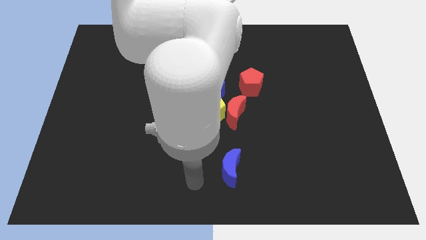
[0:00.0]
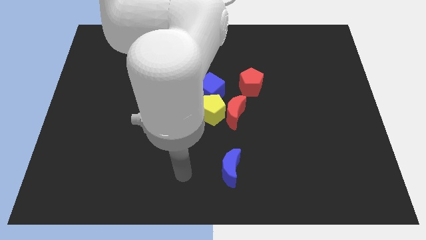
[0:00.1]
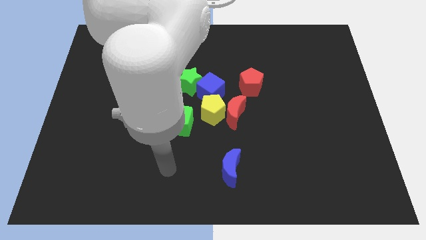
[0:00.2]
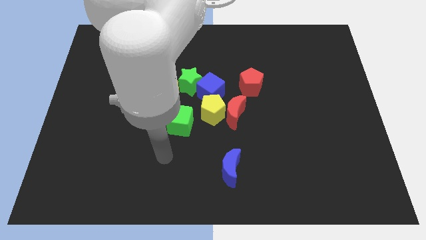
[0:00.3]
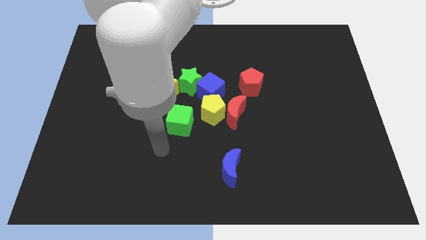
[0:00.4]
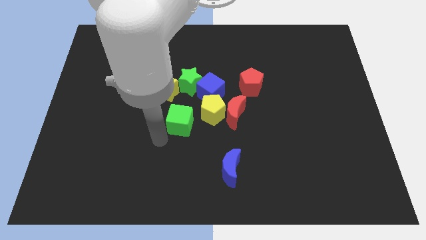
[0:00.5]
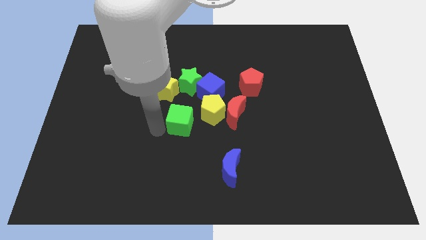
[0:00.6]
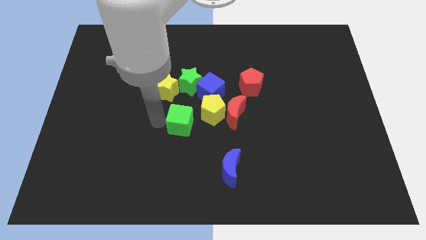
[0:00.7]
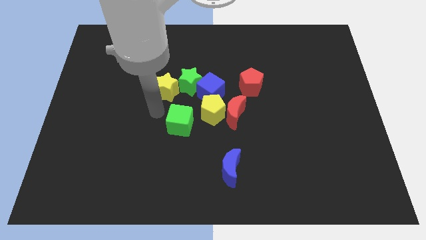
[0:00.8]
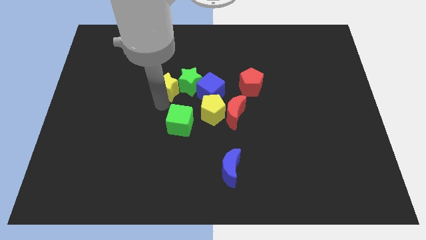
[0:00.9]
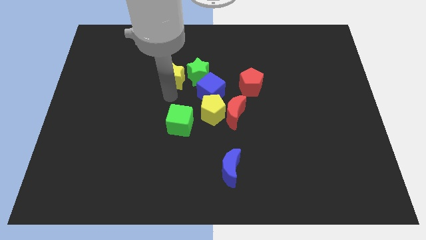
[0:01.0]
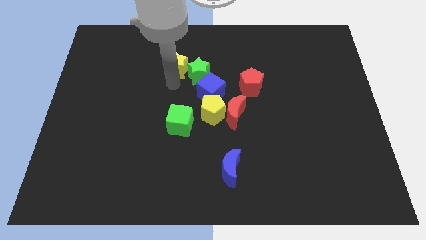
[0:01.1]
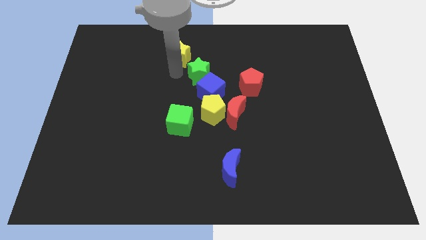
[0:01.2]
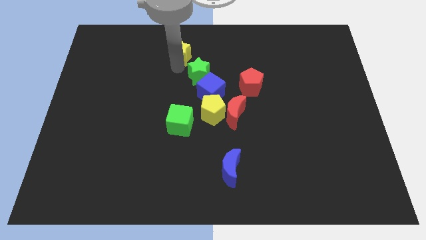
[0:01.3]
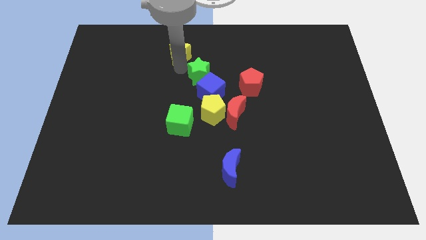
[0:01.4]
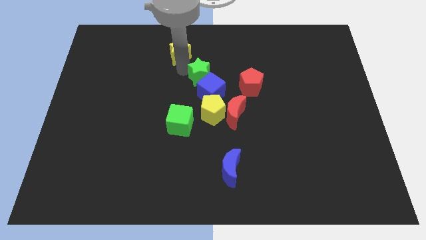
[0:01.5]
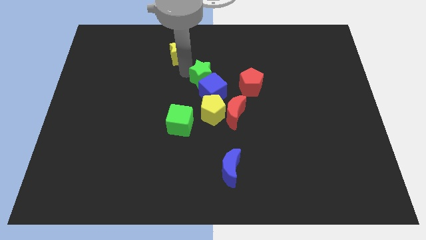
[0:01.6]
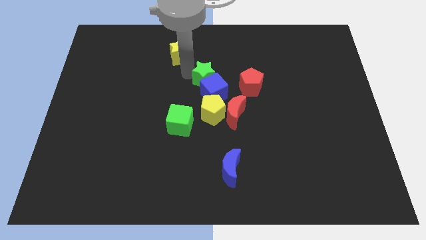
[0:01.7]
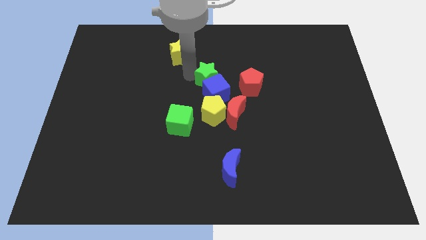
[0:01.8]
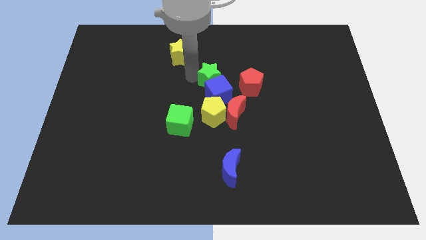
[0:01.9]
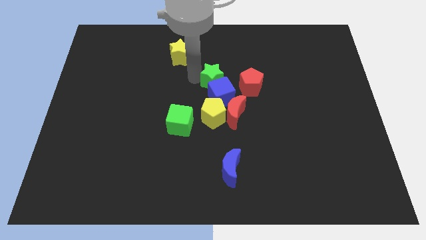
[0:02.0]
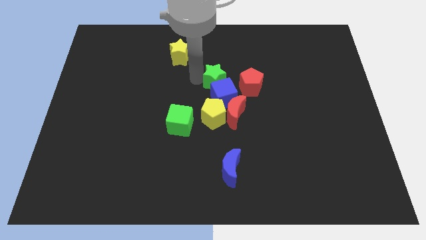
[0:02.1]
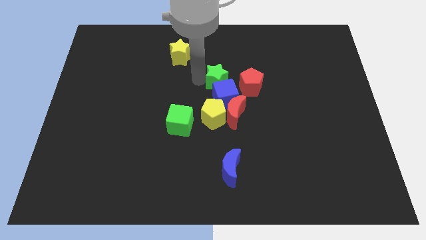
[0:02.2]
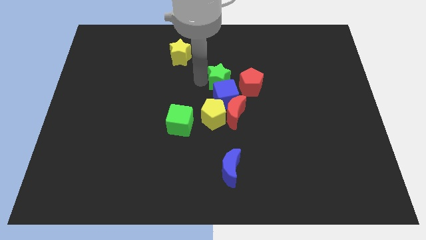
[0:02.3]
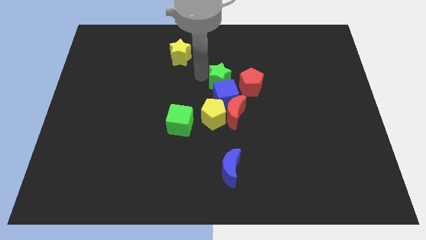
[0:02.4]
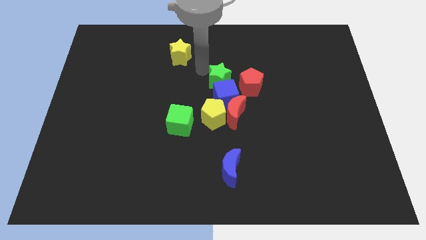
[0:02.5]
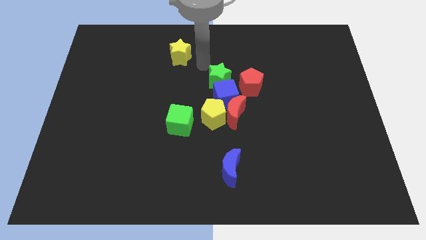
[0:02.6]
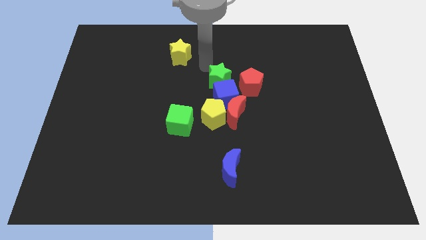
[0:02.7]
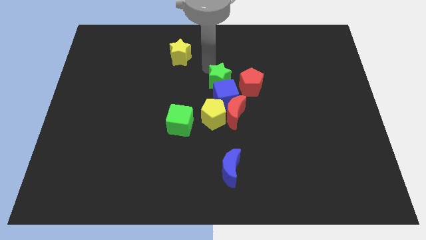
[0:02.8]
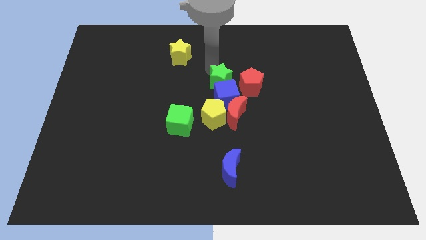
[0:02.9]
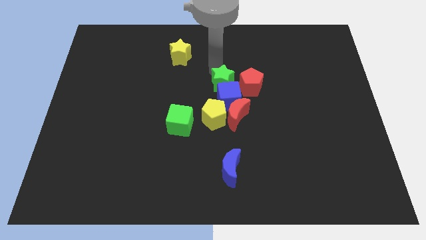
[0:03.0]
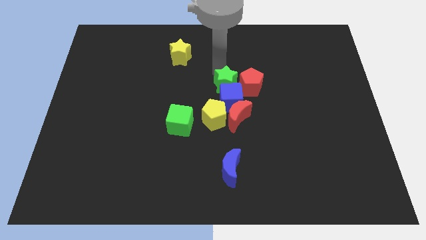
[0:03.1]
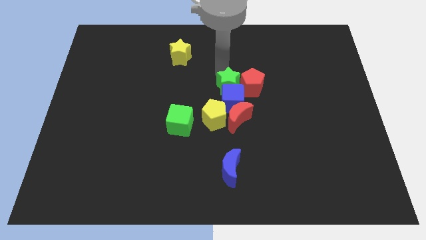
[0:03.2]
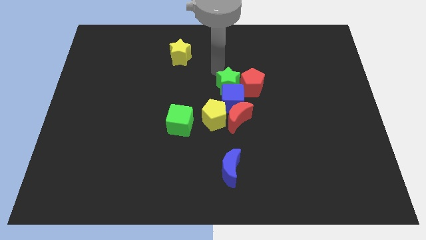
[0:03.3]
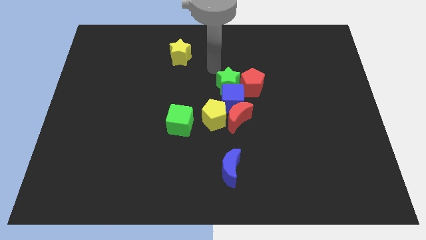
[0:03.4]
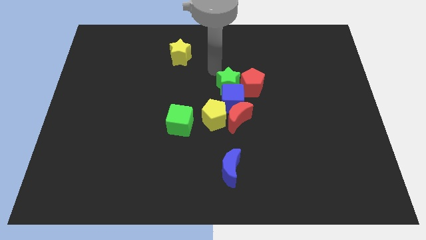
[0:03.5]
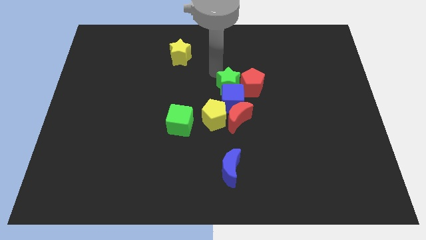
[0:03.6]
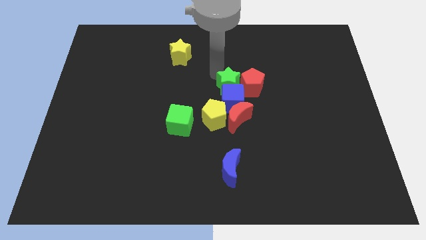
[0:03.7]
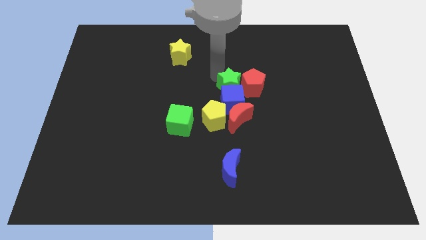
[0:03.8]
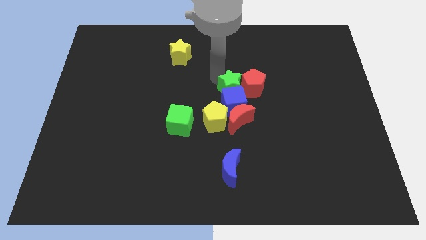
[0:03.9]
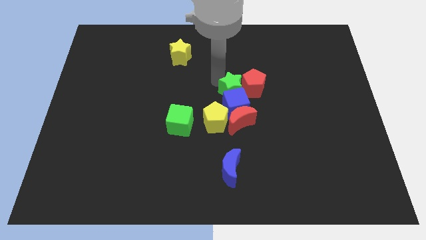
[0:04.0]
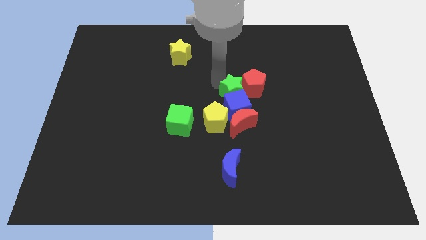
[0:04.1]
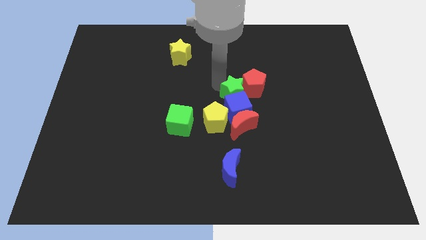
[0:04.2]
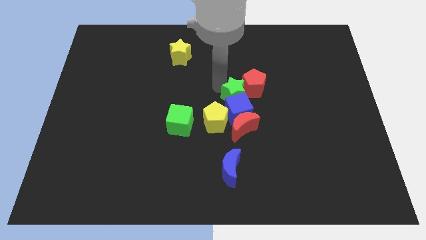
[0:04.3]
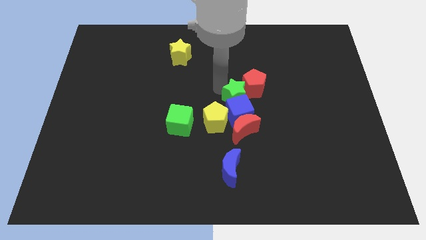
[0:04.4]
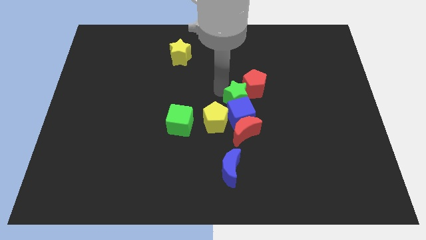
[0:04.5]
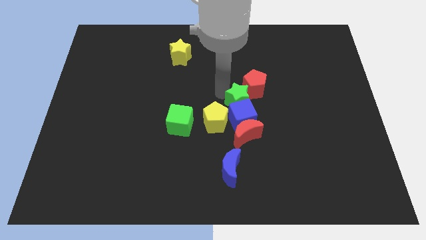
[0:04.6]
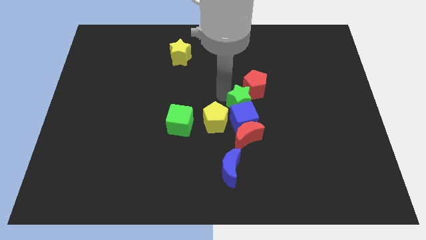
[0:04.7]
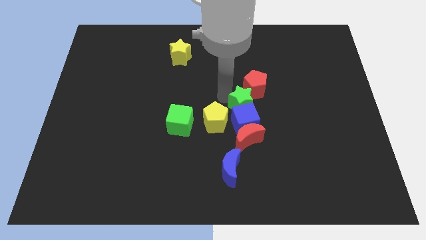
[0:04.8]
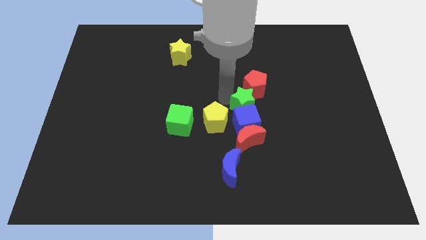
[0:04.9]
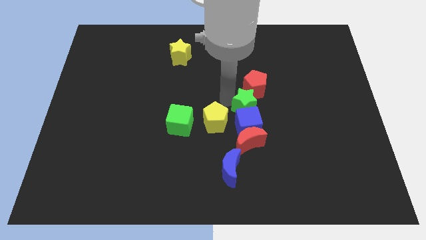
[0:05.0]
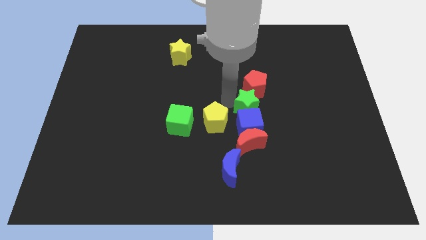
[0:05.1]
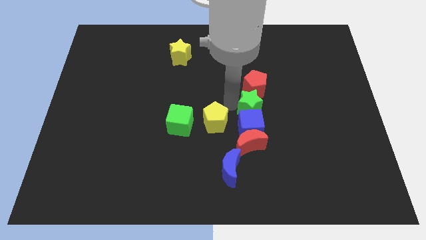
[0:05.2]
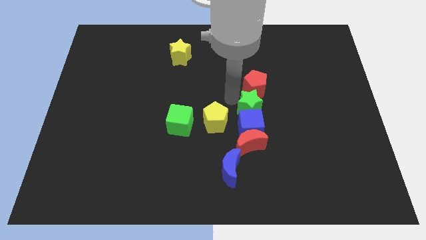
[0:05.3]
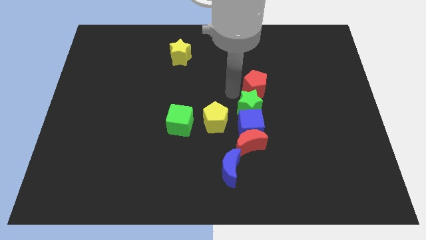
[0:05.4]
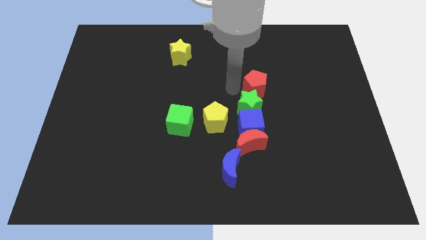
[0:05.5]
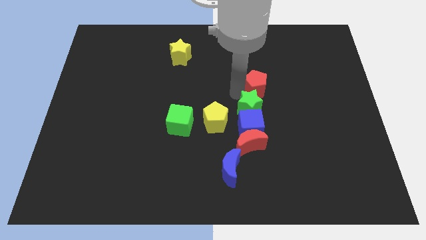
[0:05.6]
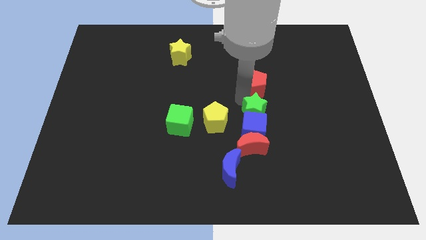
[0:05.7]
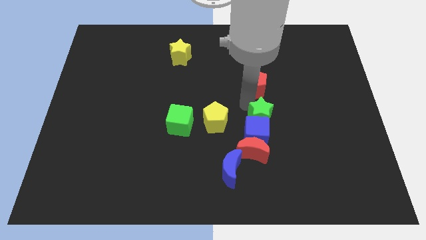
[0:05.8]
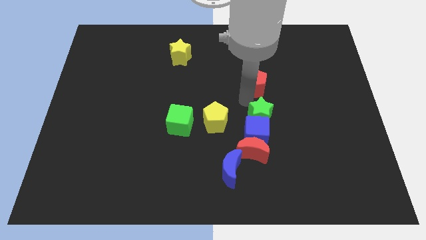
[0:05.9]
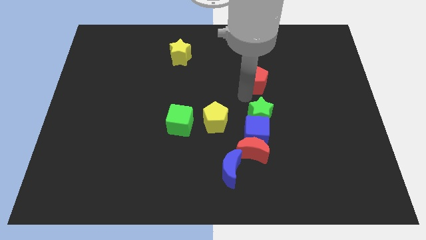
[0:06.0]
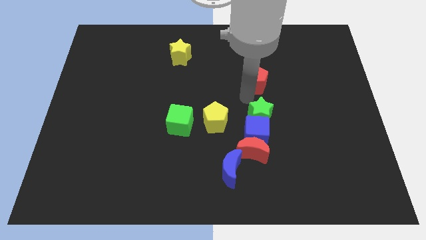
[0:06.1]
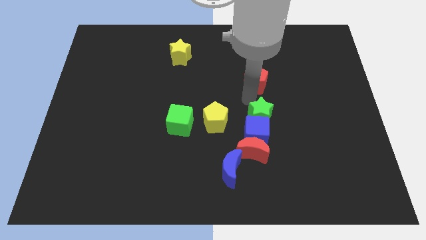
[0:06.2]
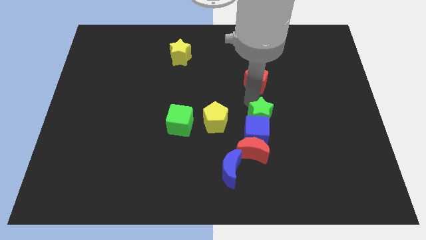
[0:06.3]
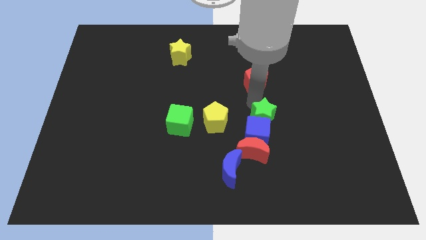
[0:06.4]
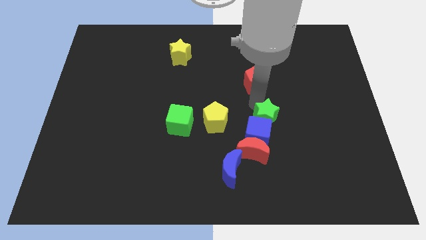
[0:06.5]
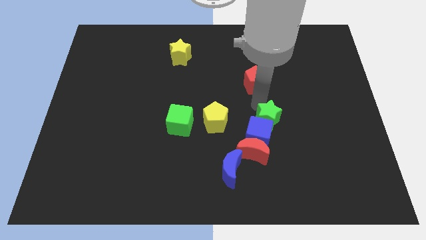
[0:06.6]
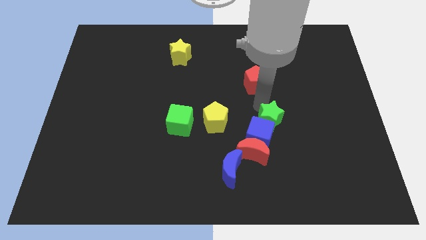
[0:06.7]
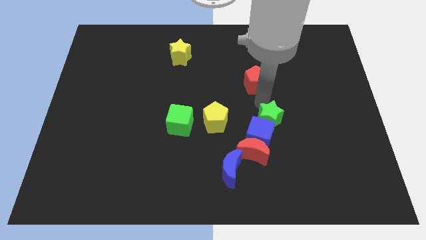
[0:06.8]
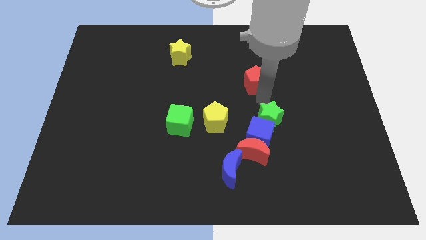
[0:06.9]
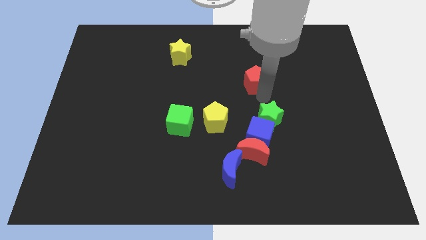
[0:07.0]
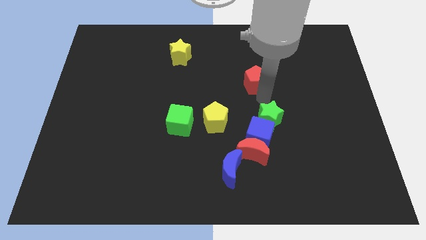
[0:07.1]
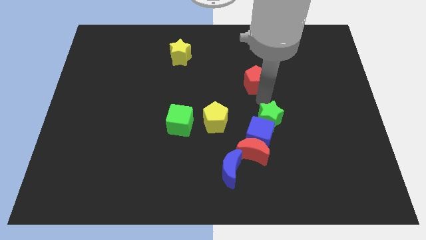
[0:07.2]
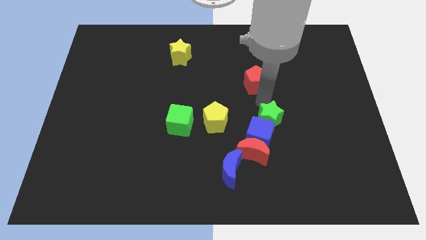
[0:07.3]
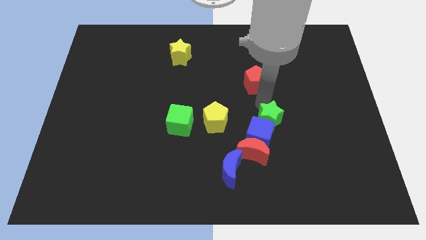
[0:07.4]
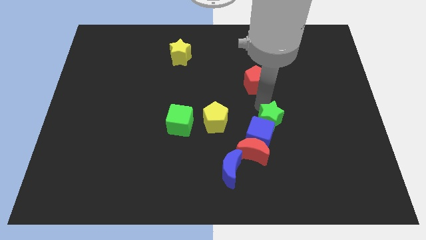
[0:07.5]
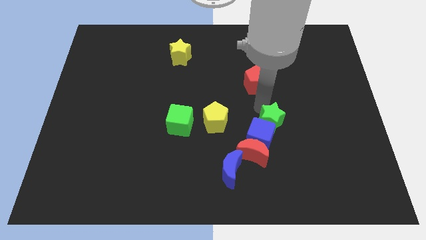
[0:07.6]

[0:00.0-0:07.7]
slide the green star downwards and right

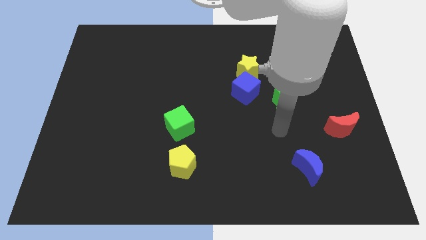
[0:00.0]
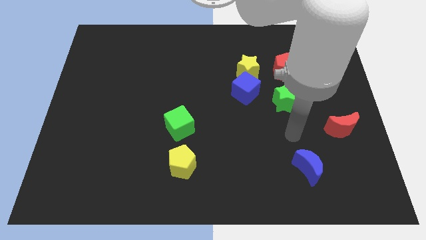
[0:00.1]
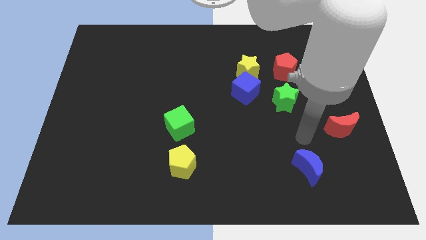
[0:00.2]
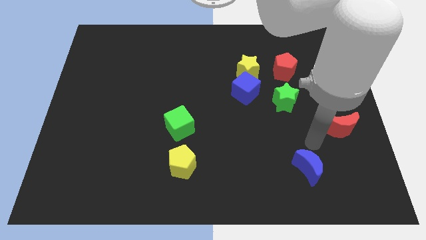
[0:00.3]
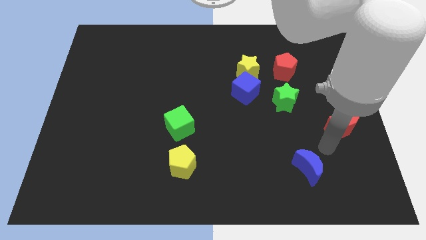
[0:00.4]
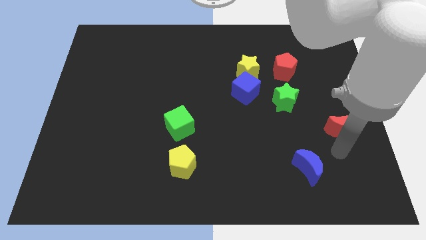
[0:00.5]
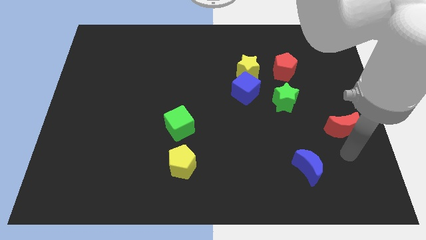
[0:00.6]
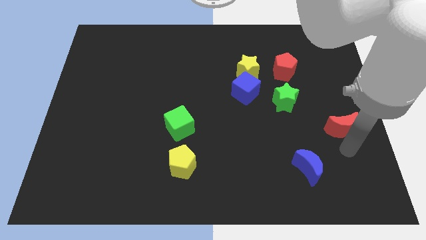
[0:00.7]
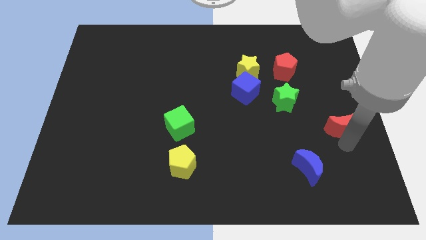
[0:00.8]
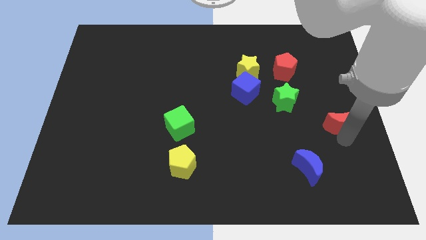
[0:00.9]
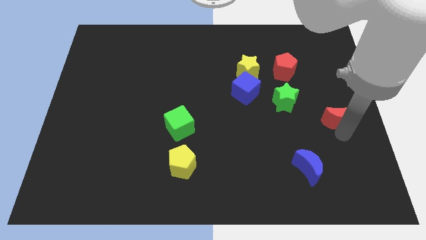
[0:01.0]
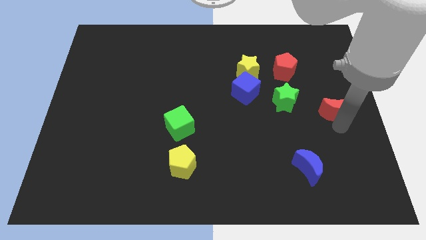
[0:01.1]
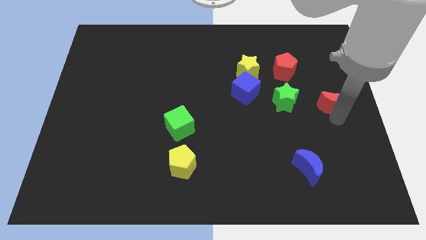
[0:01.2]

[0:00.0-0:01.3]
slightly move the red moon up
